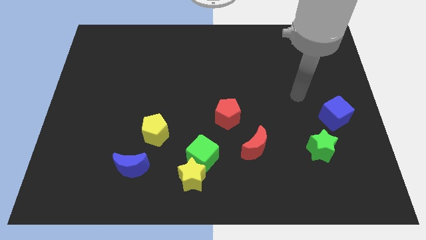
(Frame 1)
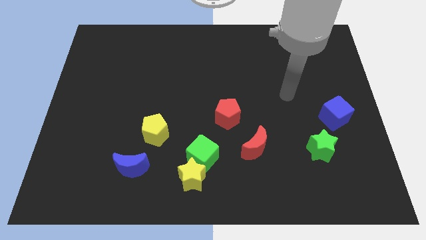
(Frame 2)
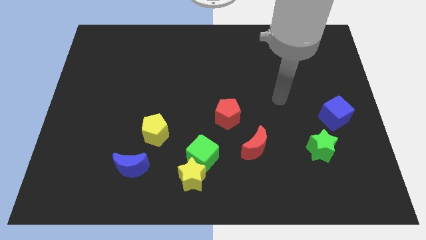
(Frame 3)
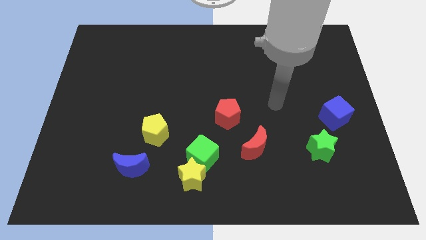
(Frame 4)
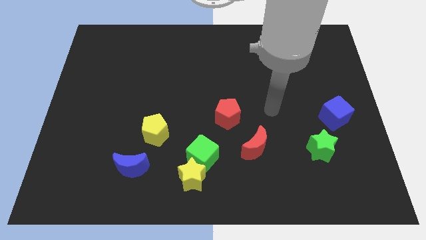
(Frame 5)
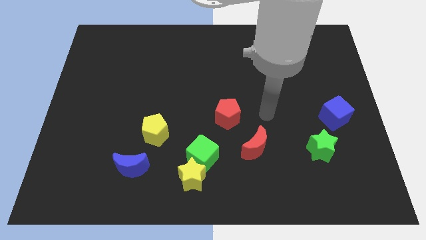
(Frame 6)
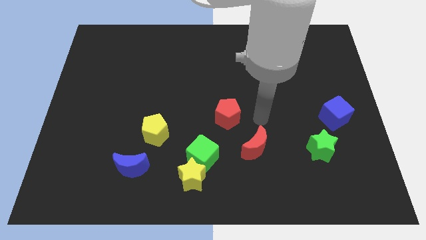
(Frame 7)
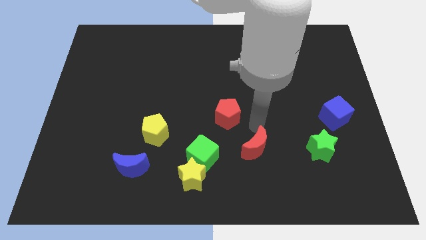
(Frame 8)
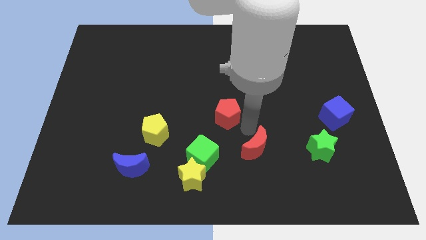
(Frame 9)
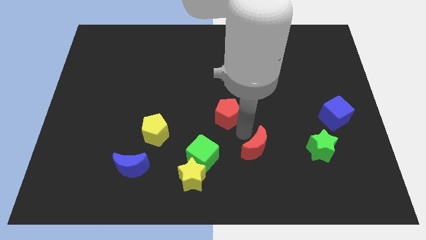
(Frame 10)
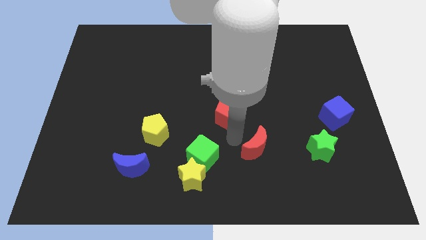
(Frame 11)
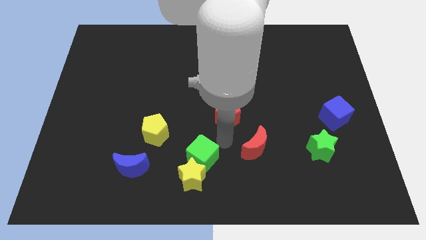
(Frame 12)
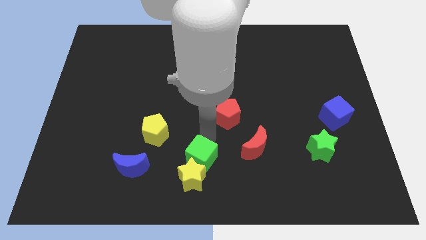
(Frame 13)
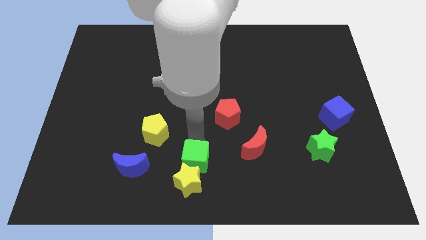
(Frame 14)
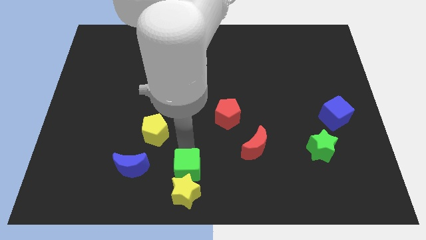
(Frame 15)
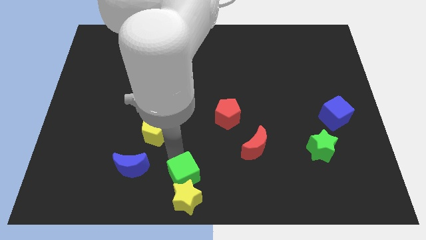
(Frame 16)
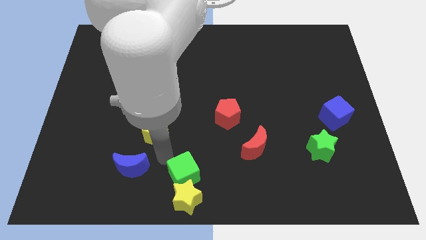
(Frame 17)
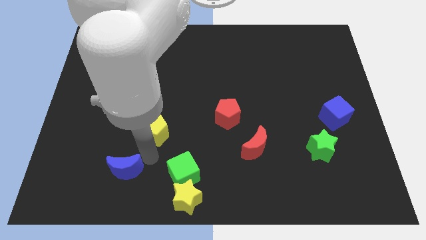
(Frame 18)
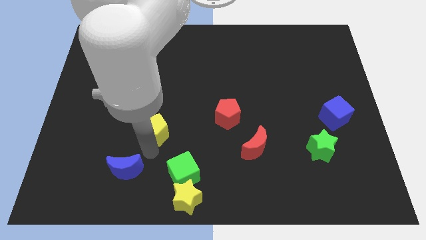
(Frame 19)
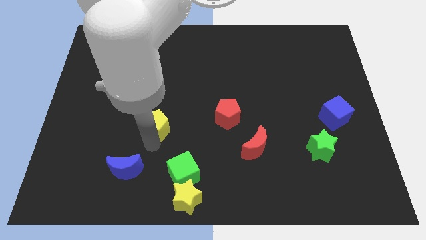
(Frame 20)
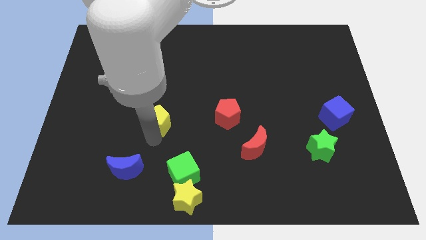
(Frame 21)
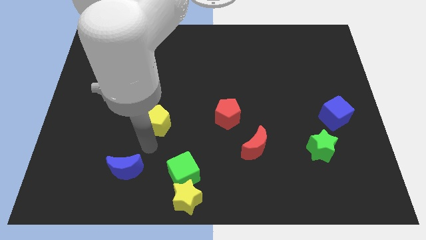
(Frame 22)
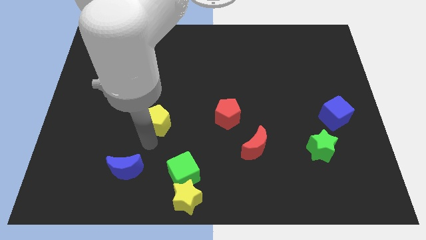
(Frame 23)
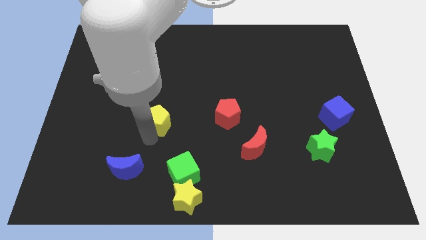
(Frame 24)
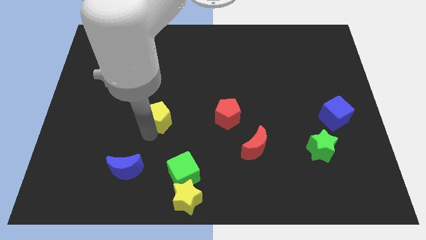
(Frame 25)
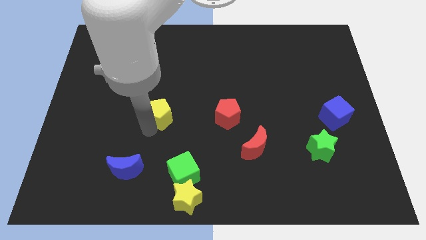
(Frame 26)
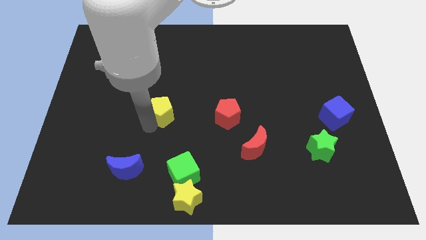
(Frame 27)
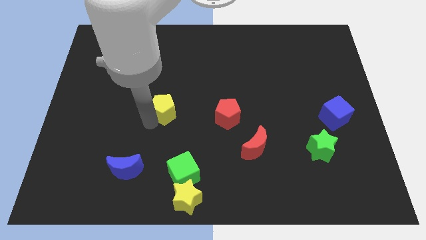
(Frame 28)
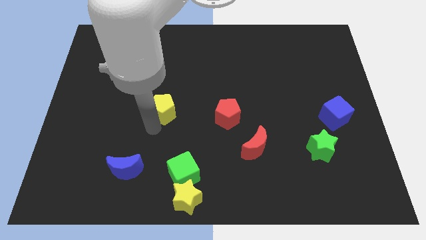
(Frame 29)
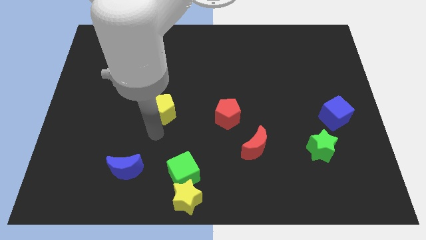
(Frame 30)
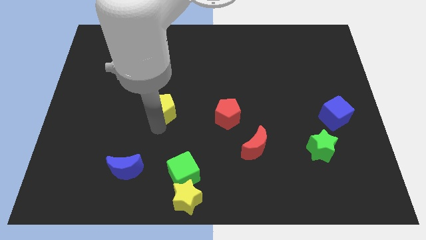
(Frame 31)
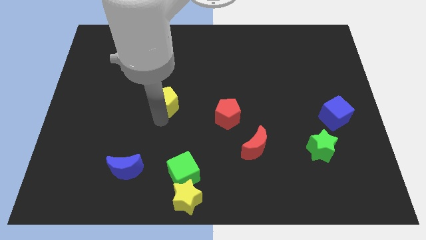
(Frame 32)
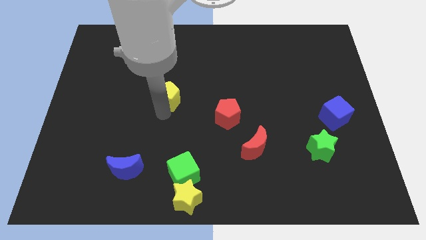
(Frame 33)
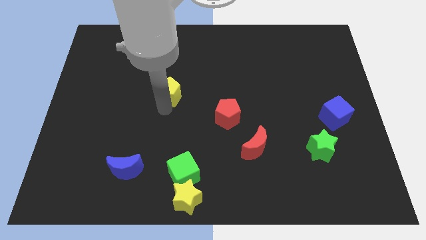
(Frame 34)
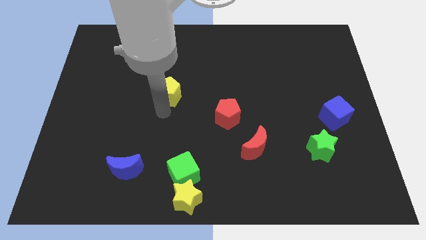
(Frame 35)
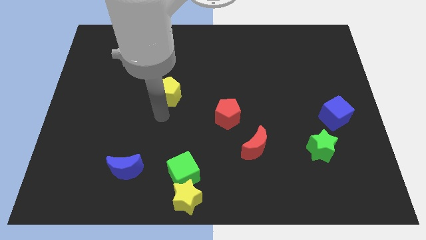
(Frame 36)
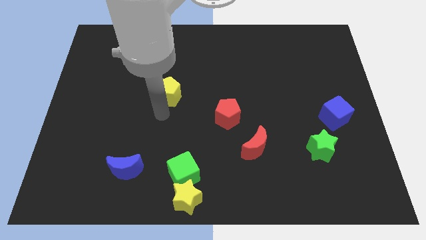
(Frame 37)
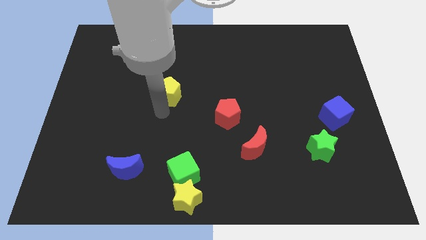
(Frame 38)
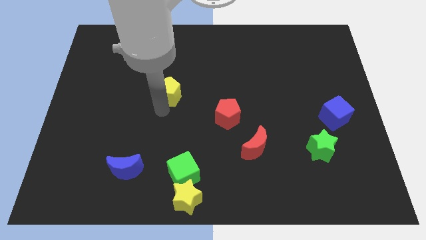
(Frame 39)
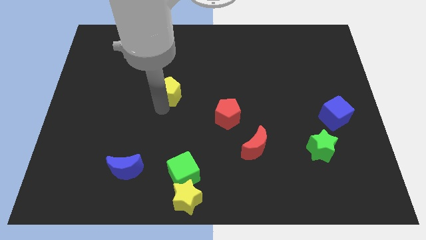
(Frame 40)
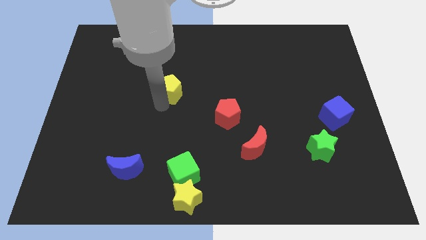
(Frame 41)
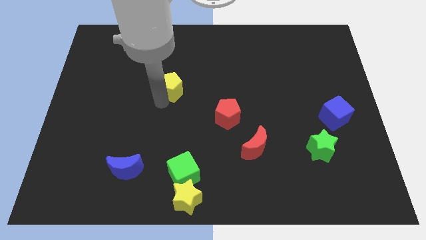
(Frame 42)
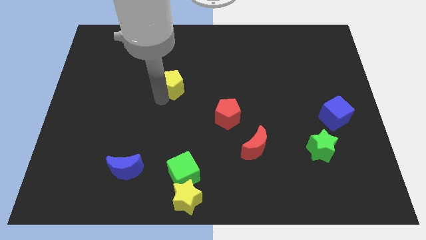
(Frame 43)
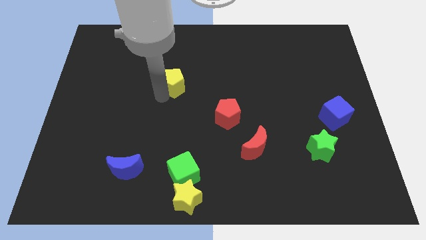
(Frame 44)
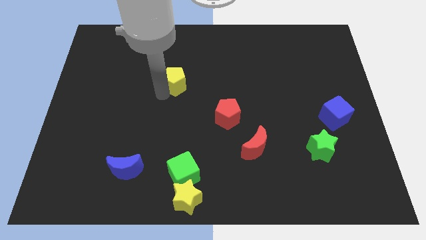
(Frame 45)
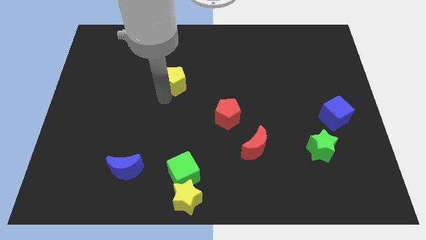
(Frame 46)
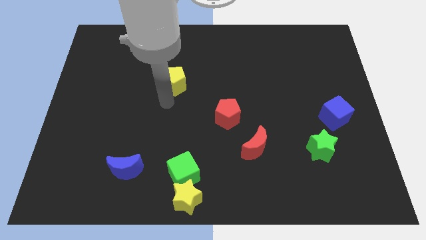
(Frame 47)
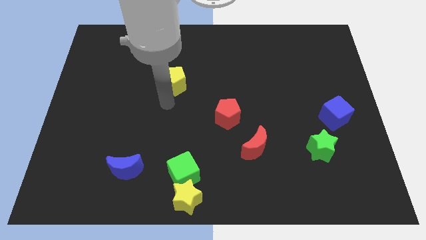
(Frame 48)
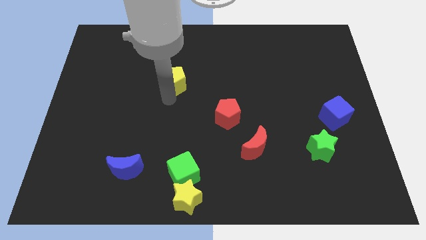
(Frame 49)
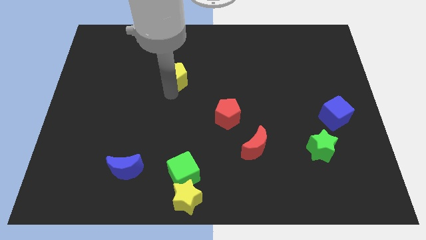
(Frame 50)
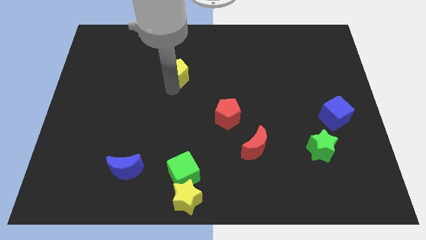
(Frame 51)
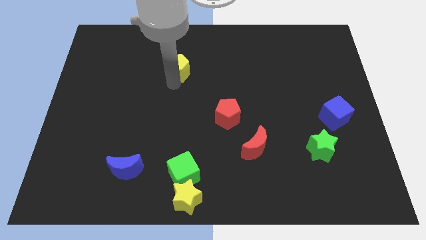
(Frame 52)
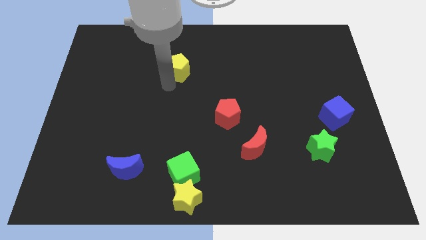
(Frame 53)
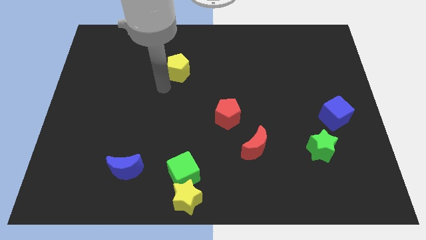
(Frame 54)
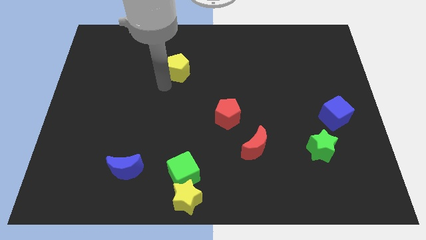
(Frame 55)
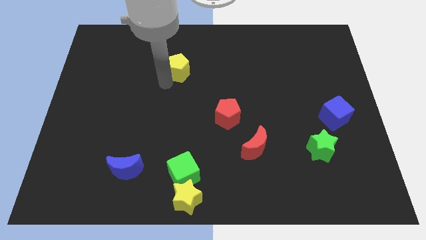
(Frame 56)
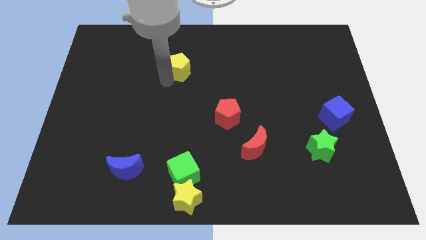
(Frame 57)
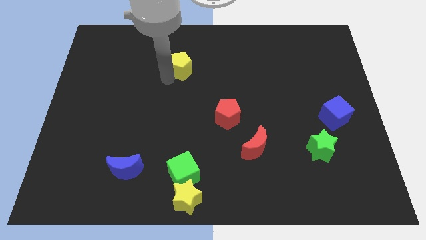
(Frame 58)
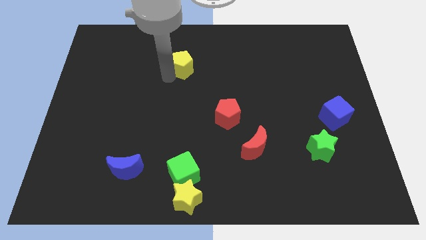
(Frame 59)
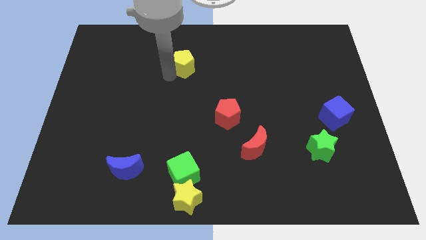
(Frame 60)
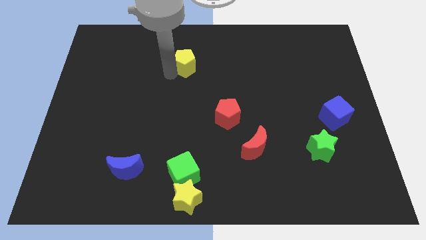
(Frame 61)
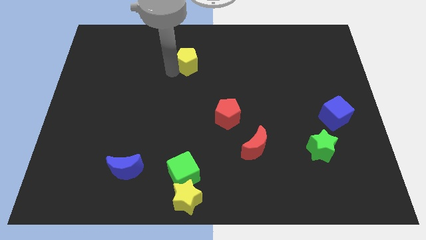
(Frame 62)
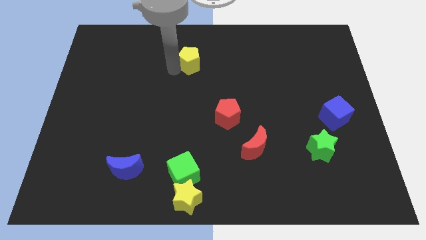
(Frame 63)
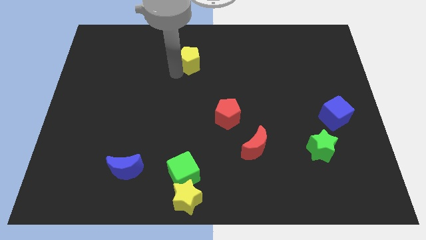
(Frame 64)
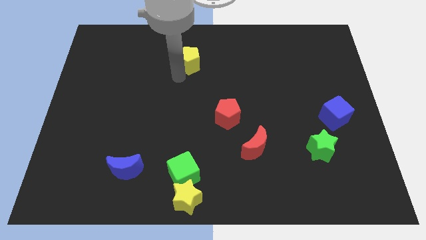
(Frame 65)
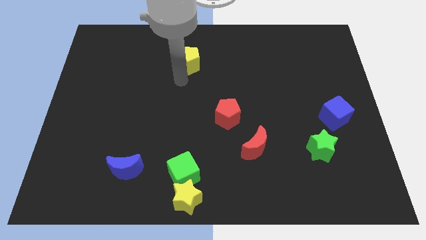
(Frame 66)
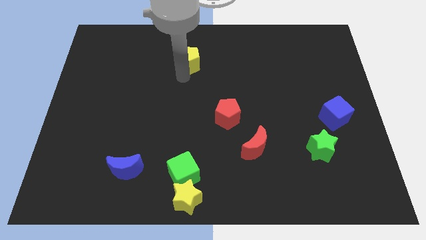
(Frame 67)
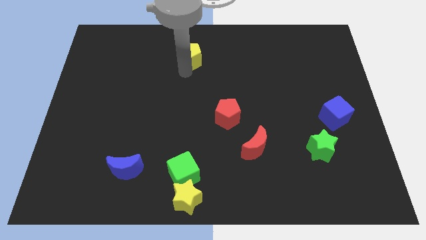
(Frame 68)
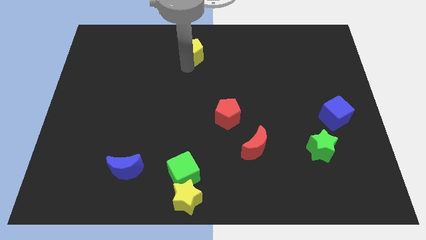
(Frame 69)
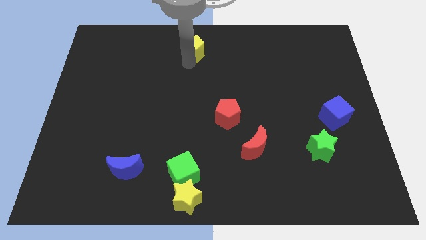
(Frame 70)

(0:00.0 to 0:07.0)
put the yellow pentagon to the top
